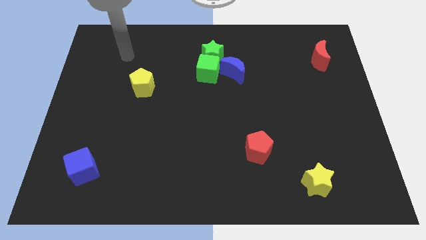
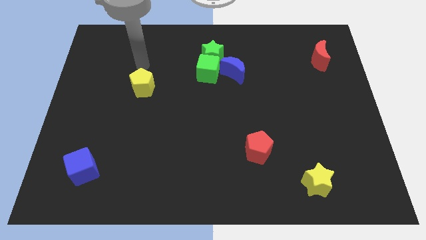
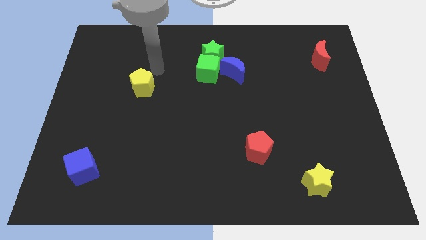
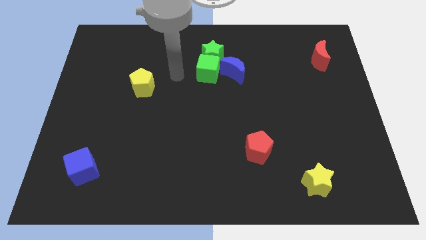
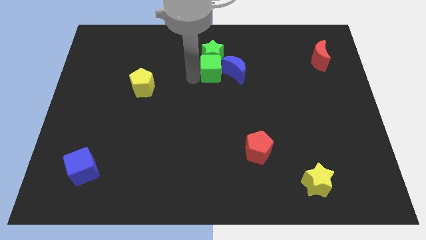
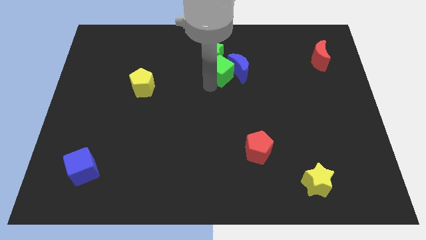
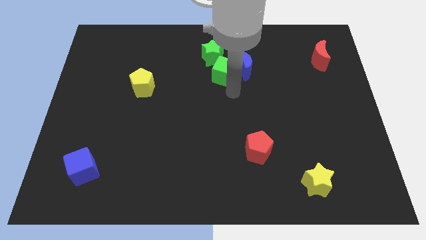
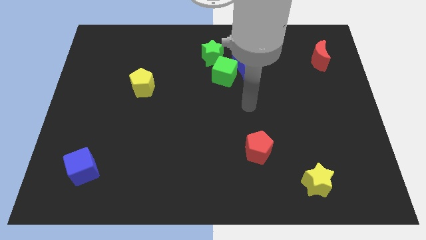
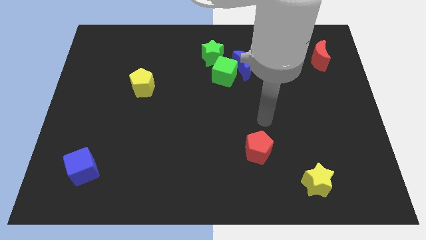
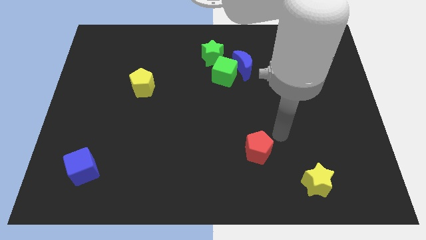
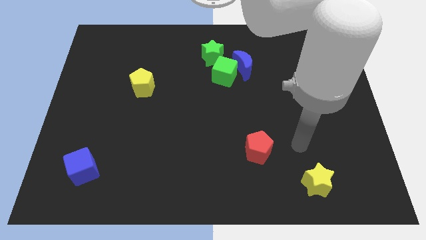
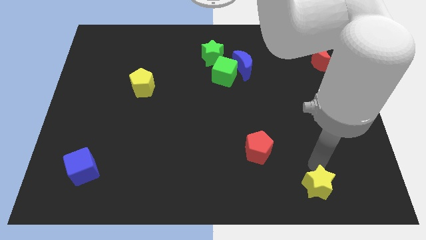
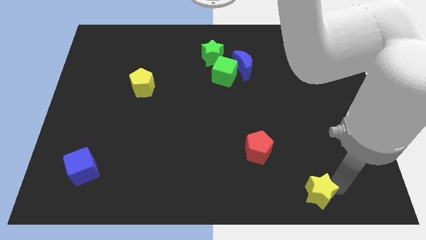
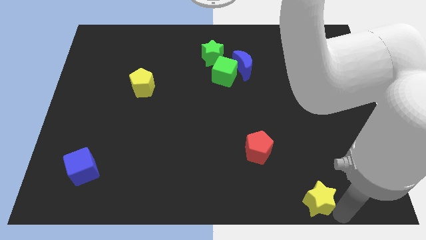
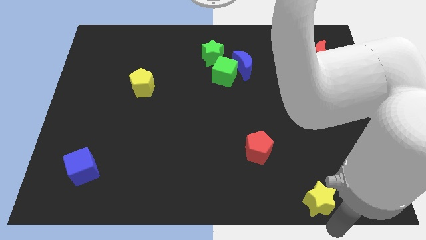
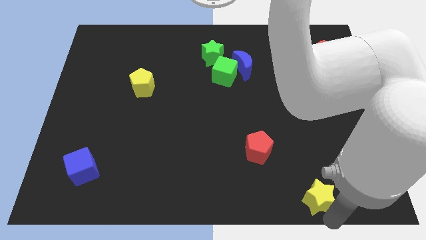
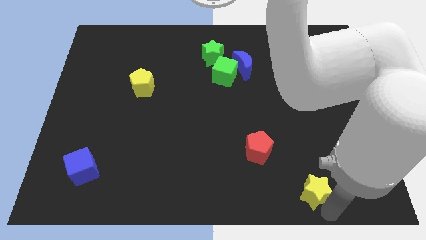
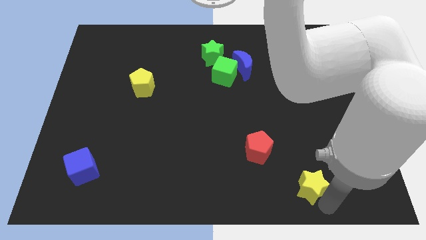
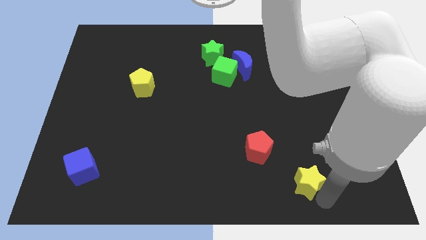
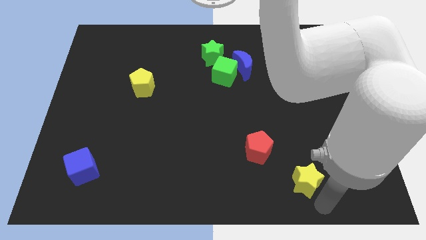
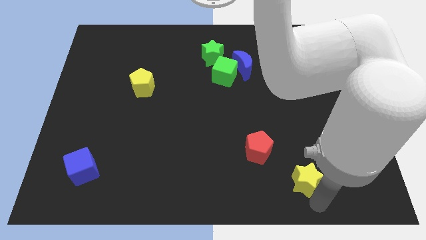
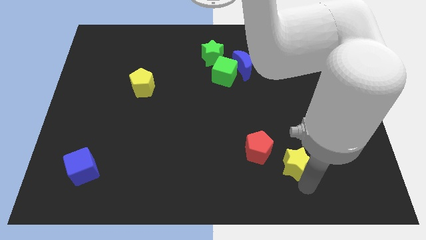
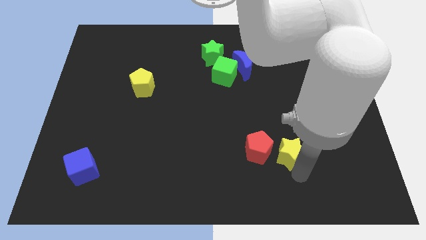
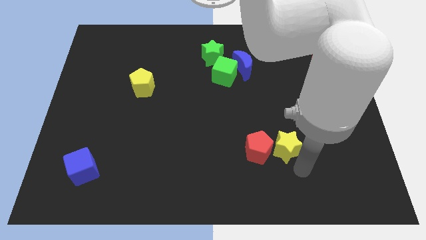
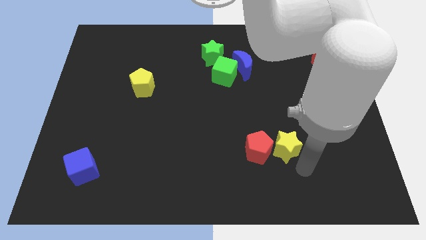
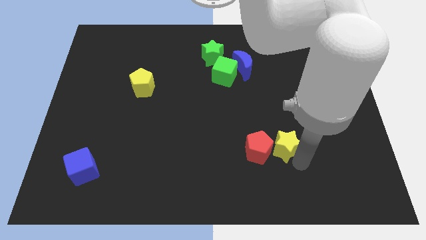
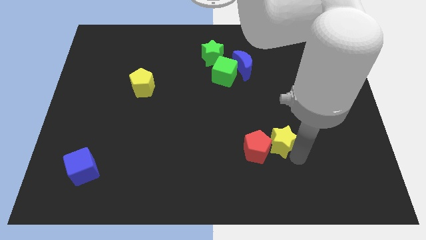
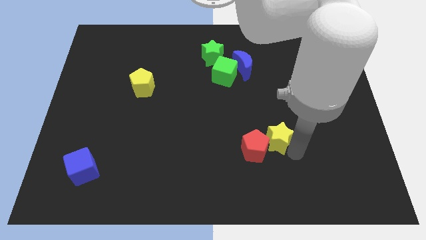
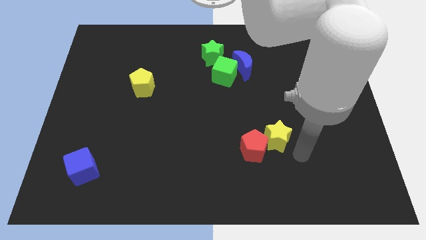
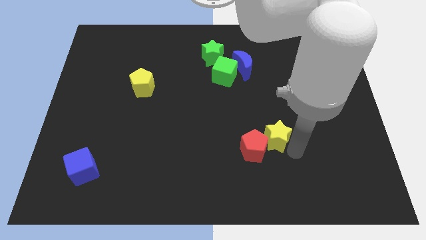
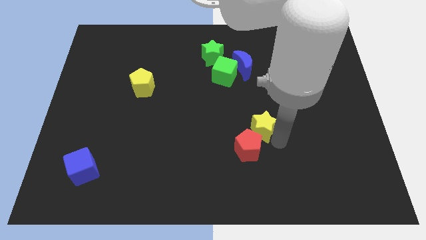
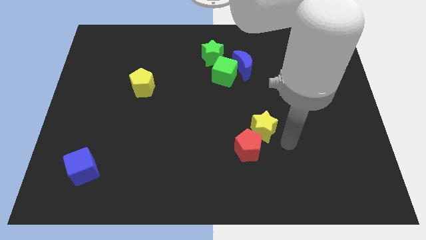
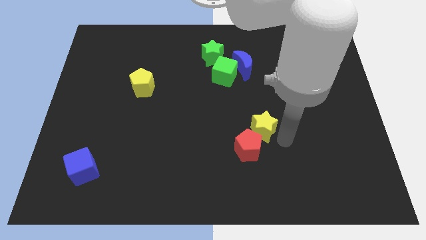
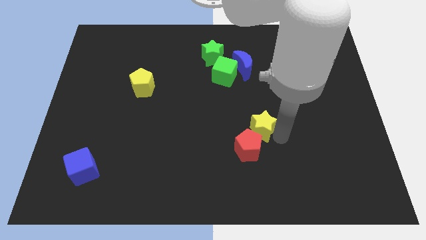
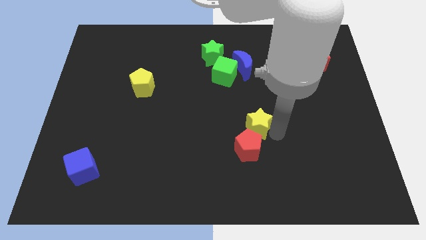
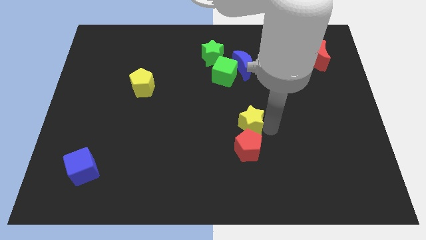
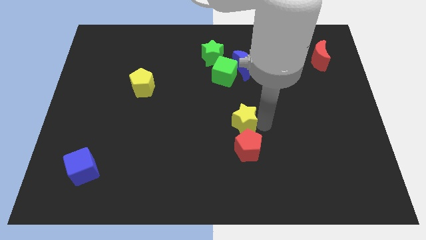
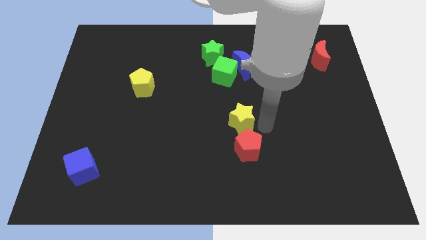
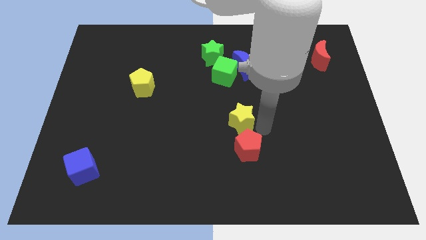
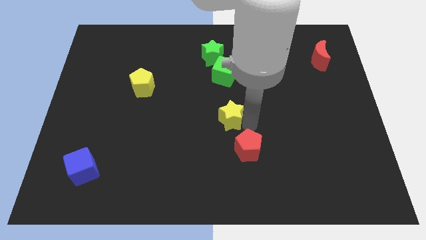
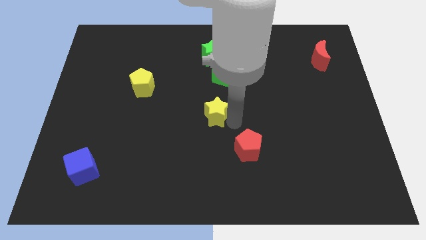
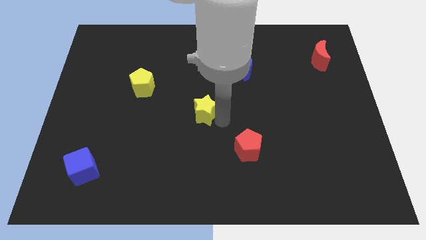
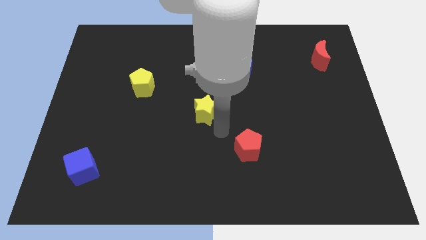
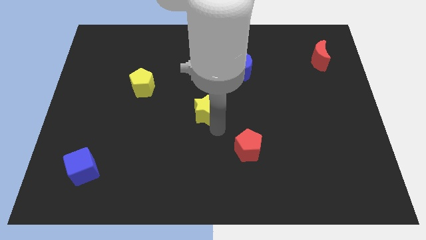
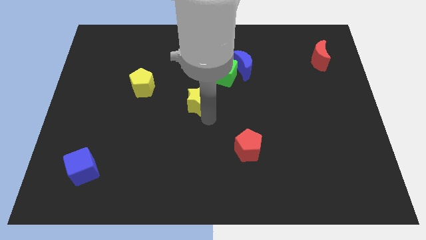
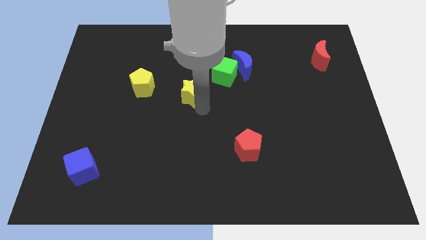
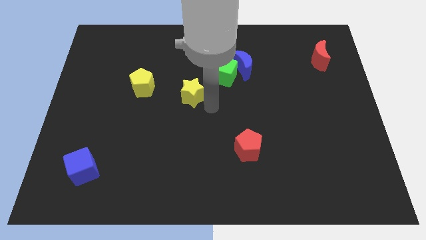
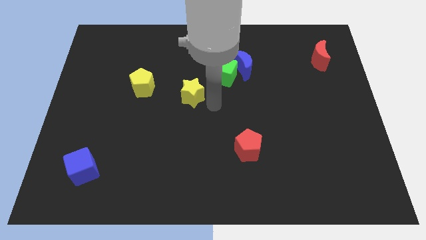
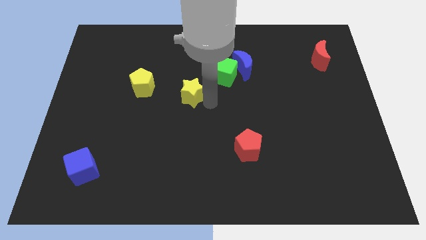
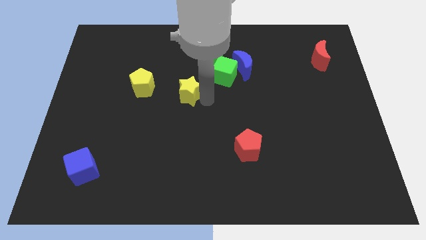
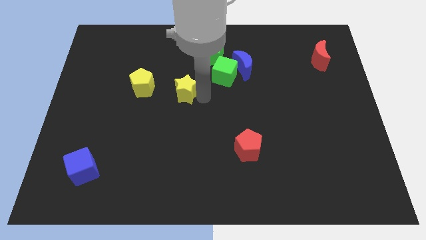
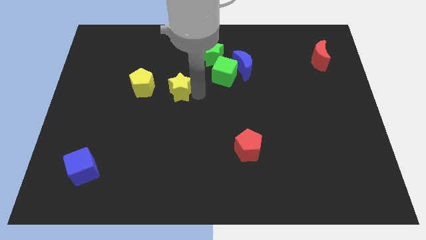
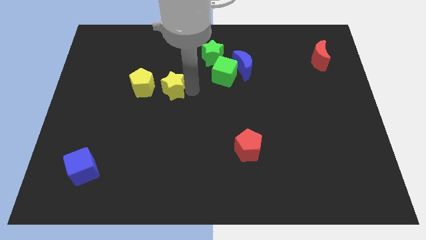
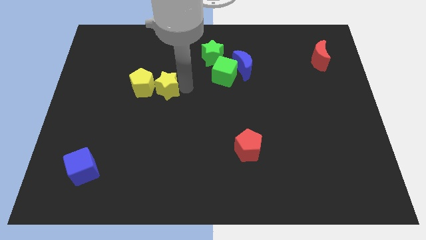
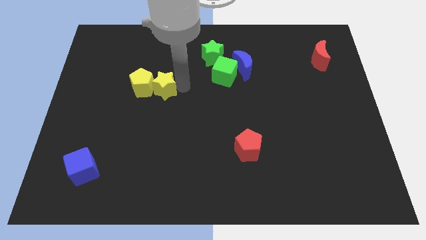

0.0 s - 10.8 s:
put the yellow star next to the yellow pentagon

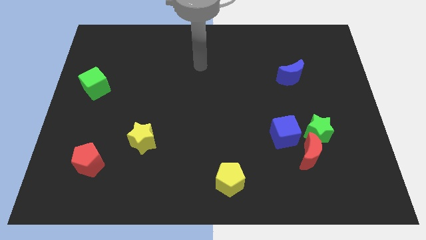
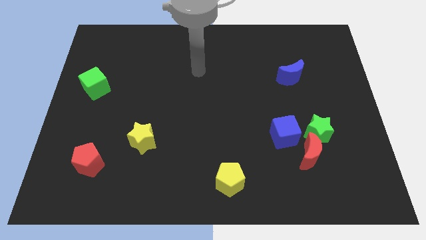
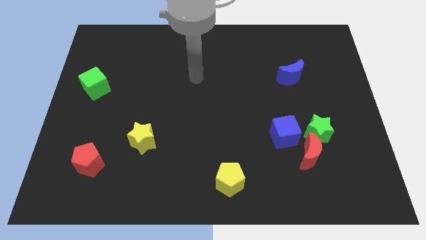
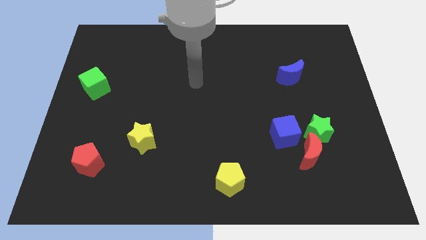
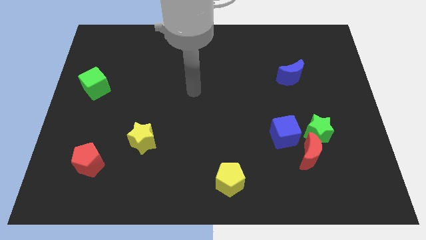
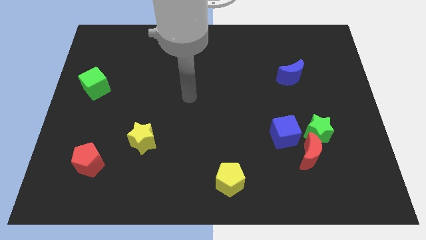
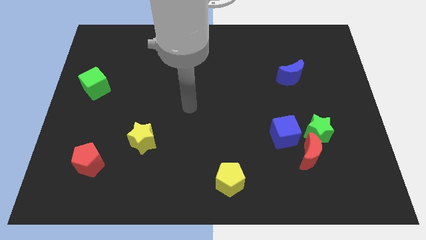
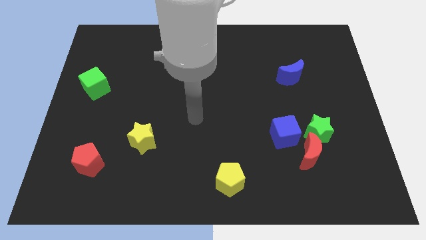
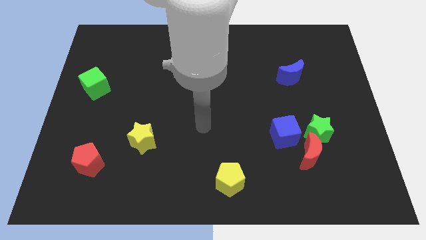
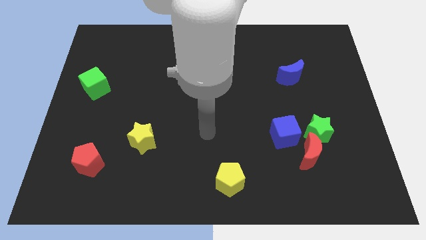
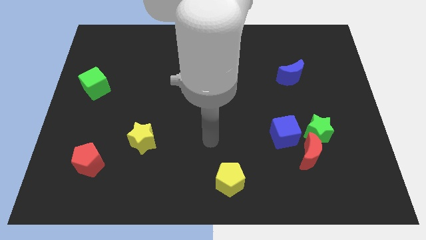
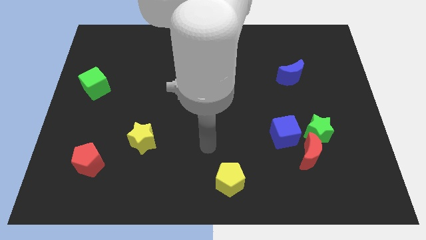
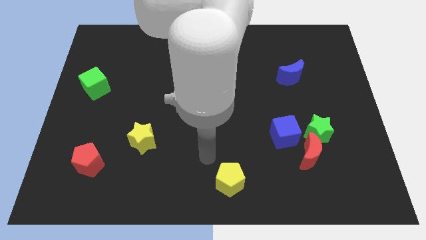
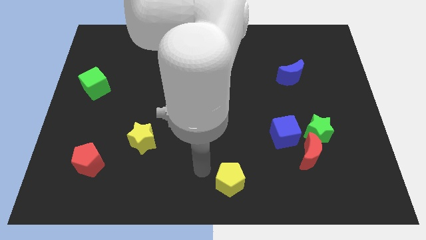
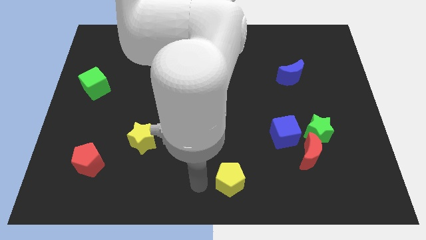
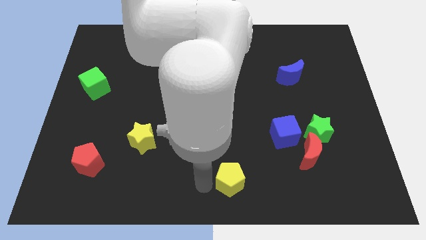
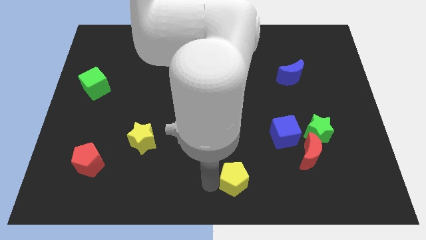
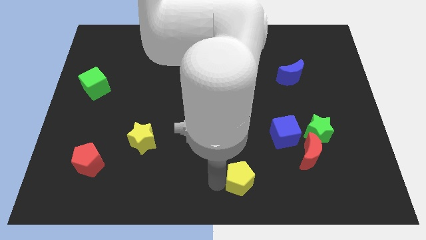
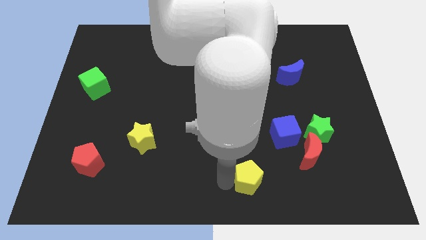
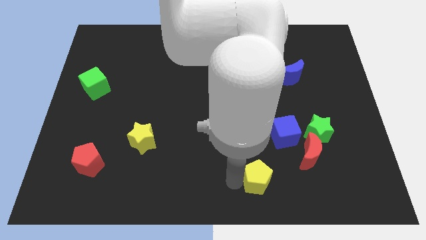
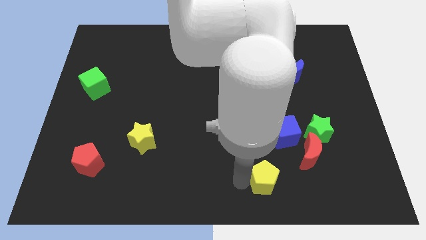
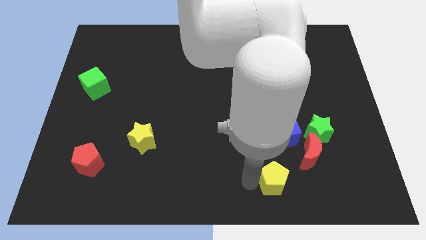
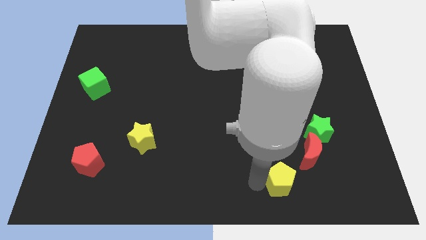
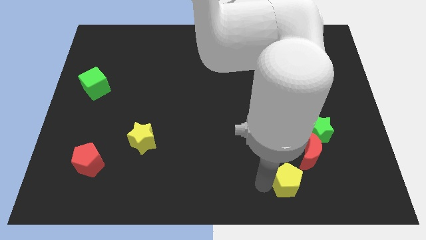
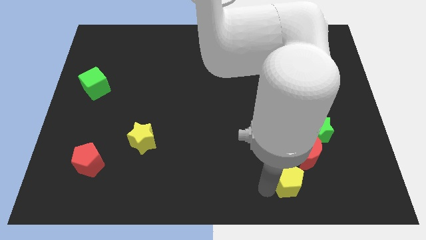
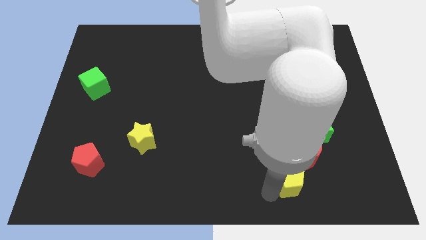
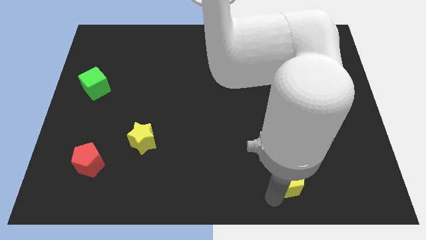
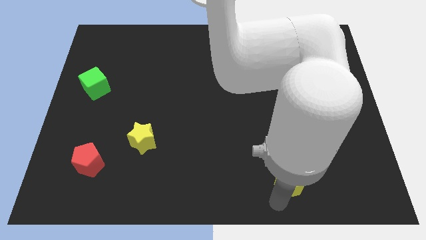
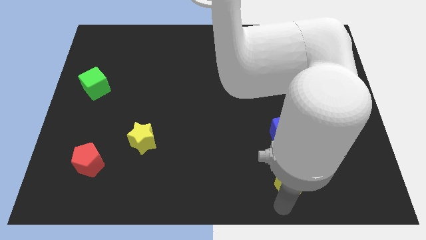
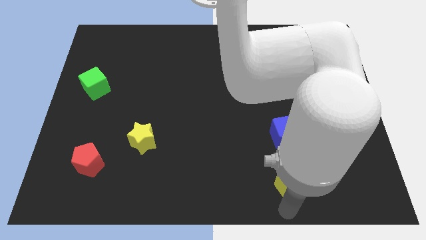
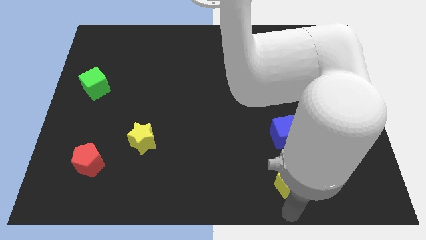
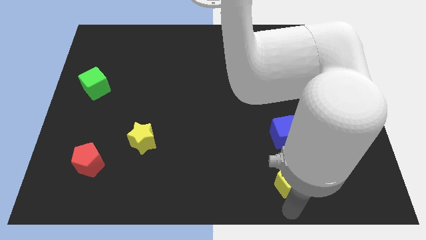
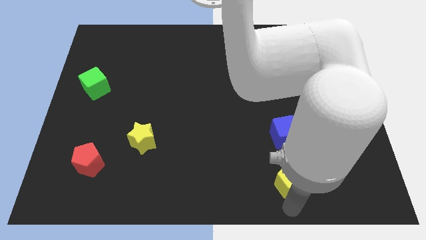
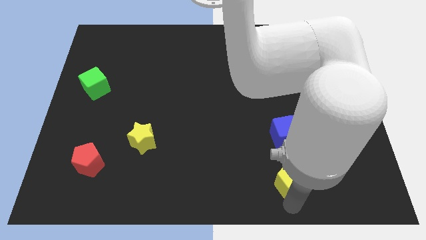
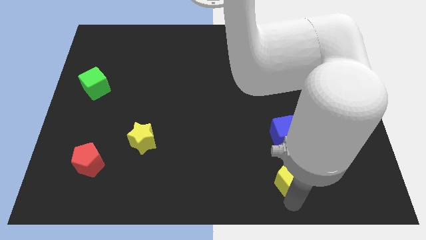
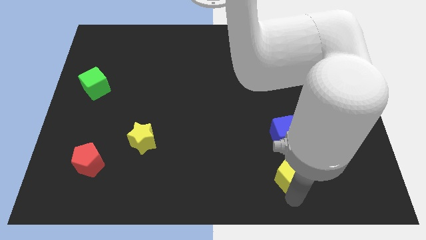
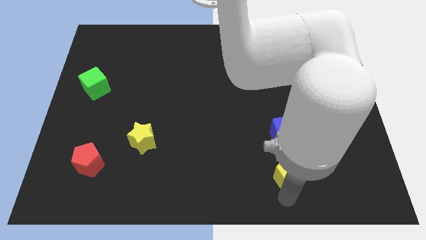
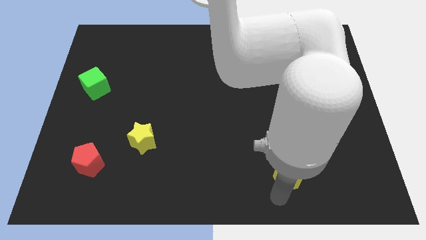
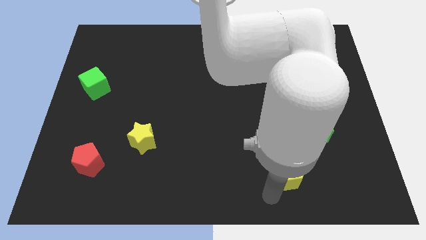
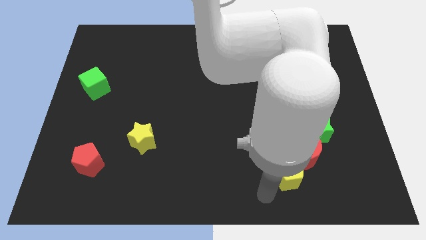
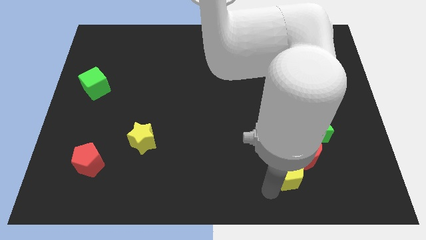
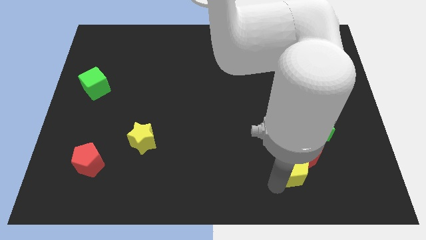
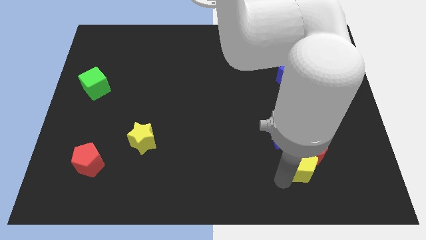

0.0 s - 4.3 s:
put the yellow pentagon to the red moon
